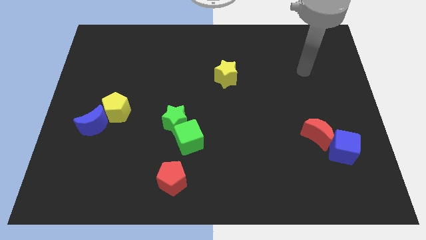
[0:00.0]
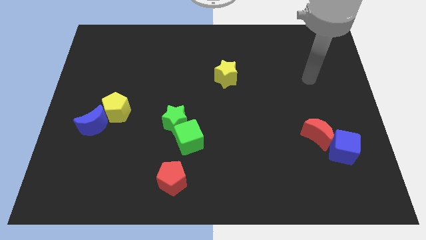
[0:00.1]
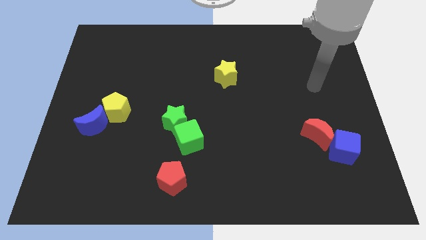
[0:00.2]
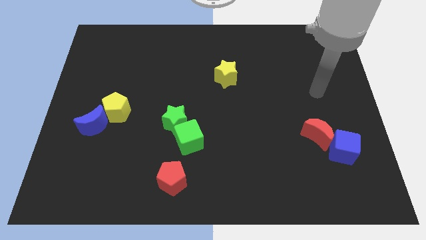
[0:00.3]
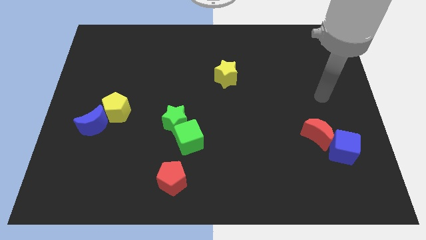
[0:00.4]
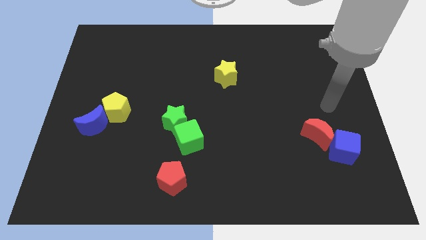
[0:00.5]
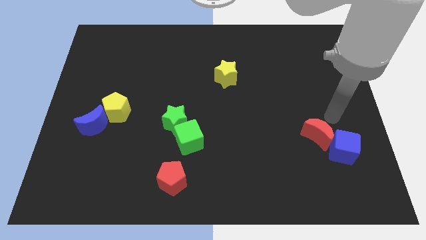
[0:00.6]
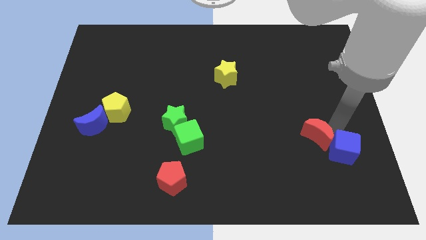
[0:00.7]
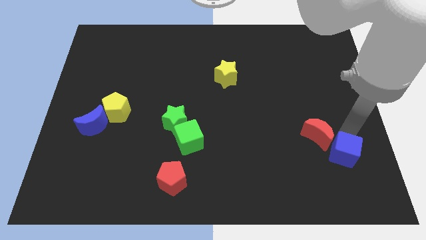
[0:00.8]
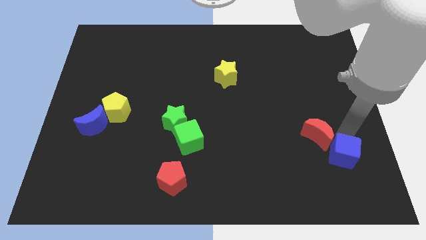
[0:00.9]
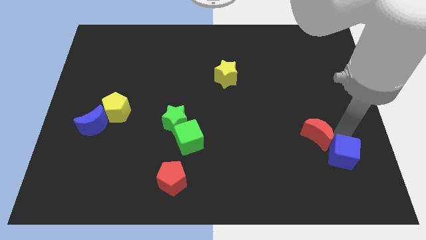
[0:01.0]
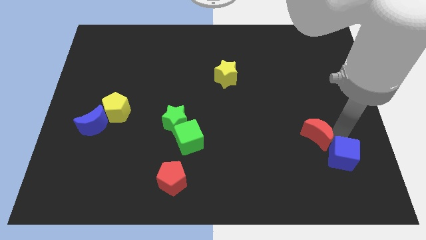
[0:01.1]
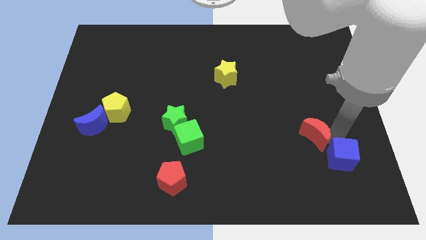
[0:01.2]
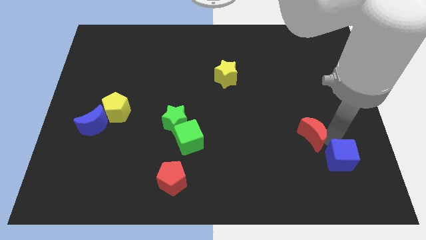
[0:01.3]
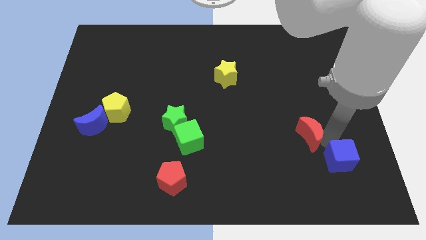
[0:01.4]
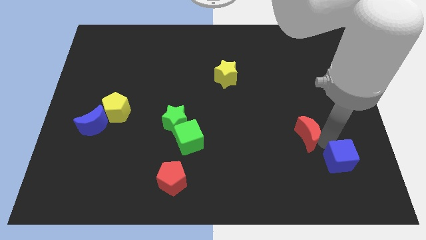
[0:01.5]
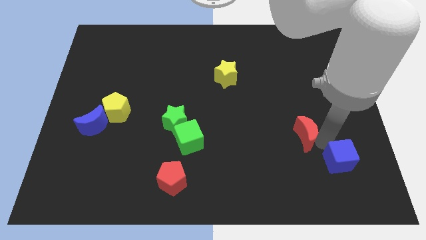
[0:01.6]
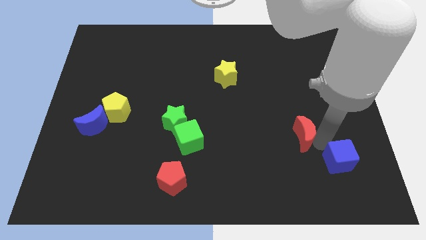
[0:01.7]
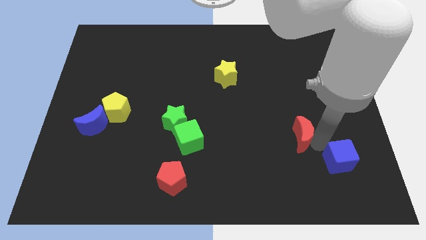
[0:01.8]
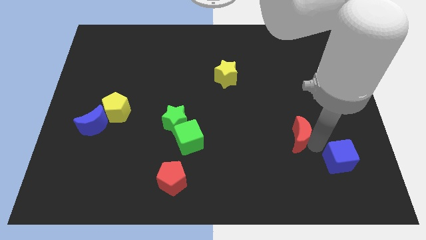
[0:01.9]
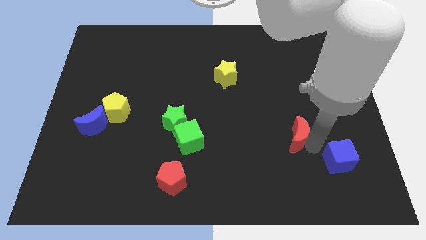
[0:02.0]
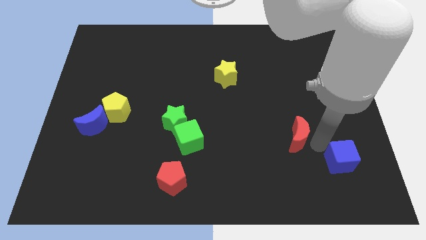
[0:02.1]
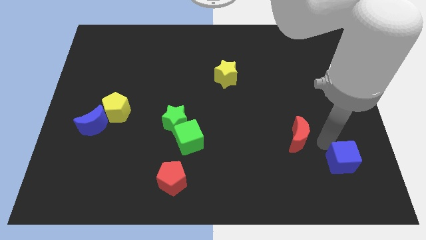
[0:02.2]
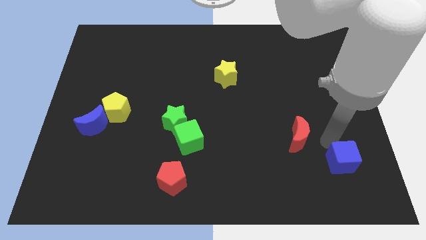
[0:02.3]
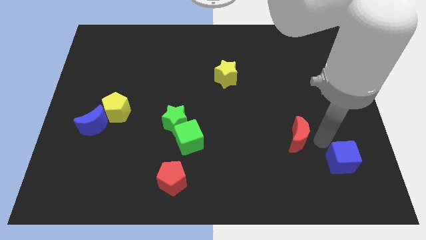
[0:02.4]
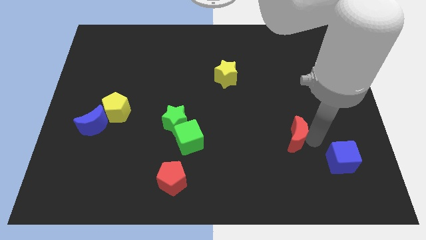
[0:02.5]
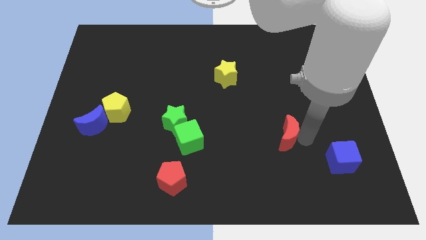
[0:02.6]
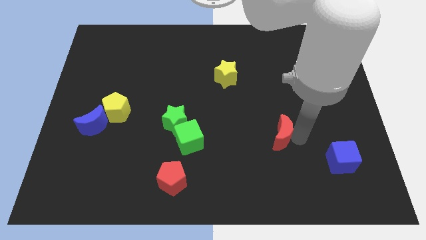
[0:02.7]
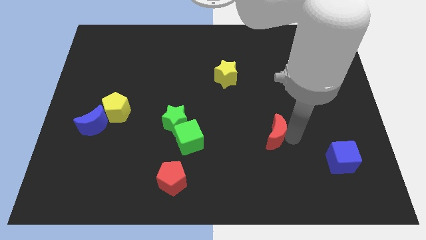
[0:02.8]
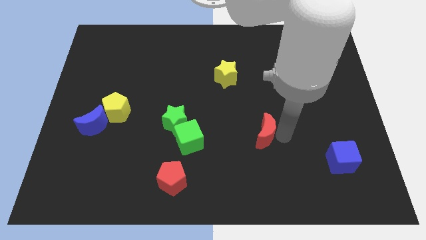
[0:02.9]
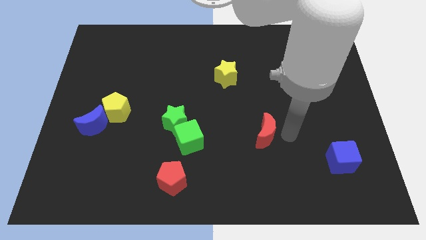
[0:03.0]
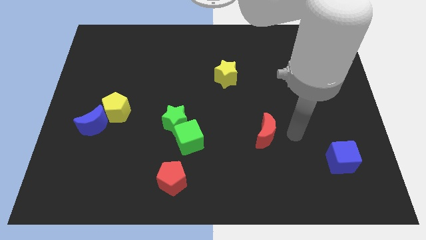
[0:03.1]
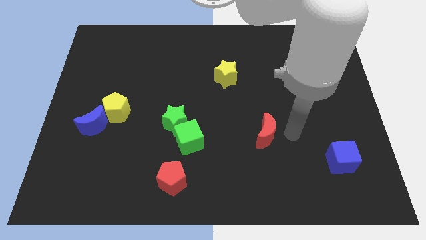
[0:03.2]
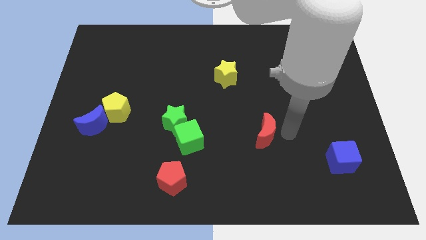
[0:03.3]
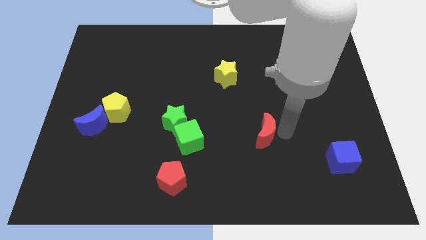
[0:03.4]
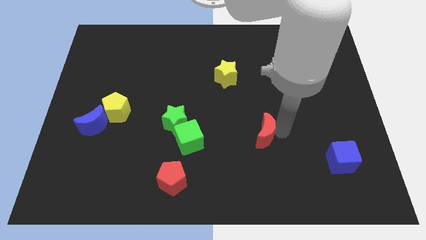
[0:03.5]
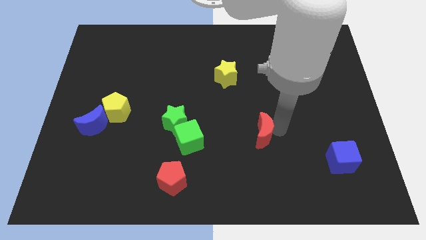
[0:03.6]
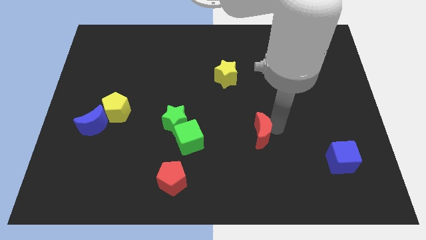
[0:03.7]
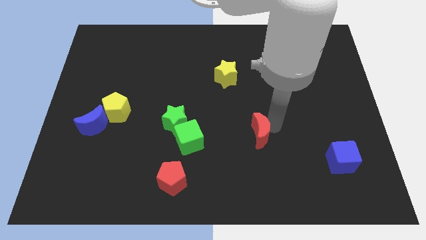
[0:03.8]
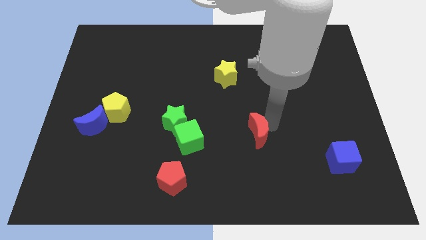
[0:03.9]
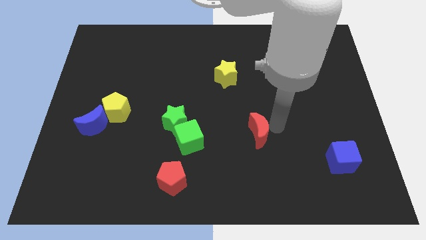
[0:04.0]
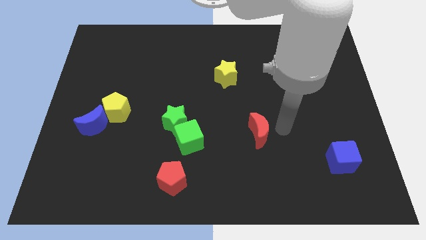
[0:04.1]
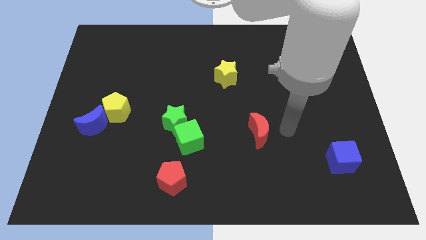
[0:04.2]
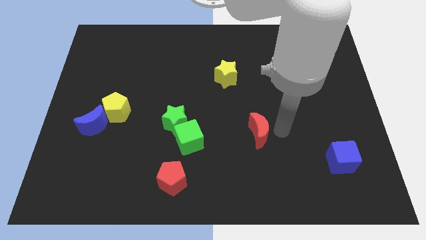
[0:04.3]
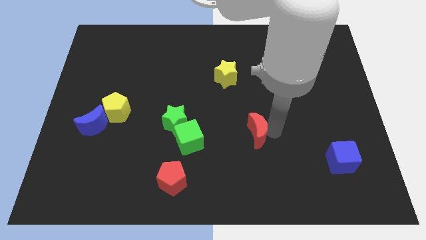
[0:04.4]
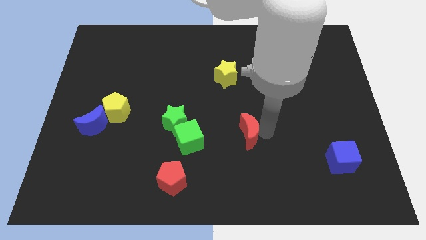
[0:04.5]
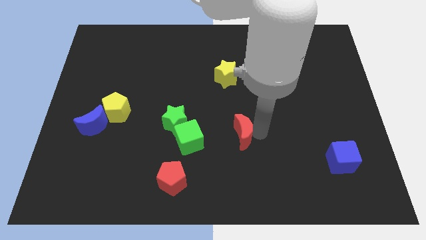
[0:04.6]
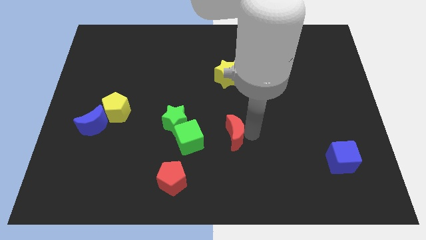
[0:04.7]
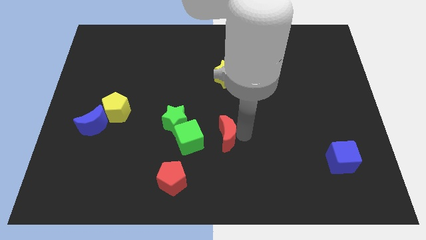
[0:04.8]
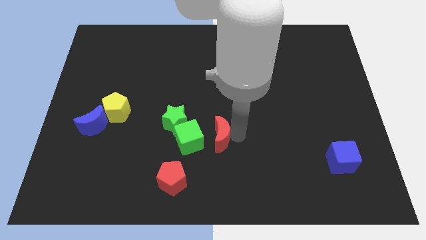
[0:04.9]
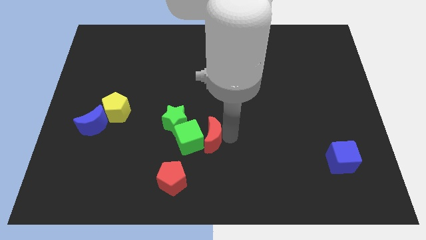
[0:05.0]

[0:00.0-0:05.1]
move the red moon close to the green cube

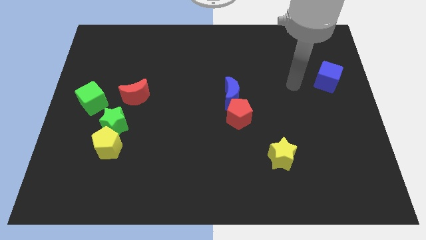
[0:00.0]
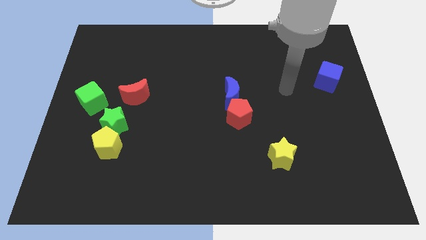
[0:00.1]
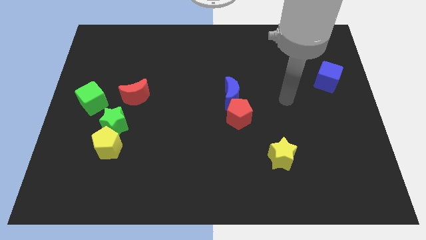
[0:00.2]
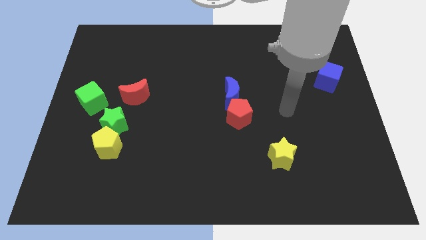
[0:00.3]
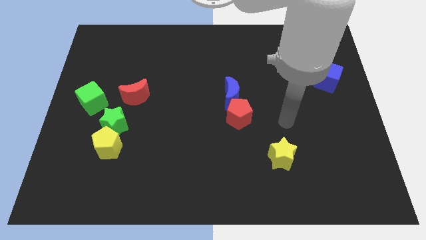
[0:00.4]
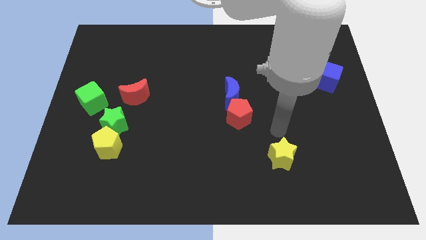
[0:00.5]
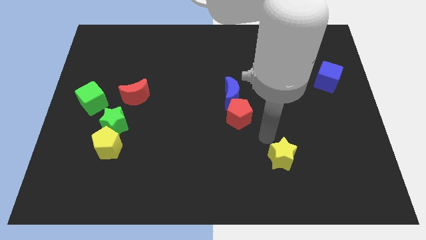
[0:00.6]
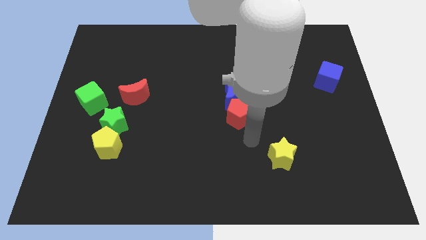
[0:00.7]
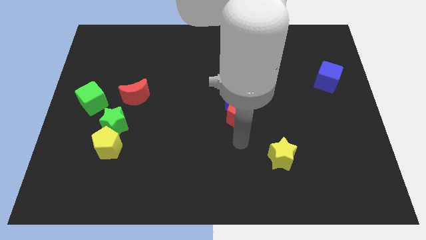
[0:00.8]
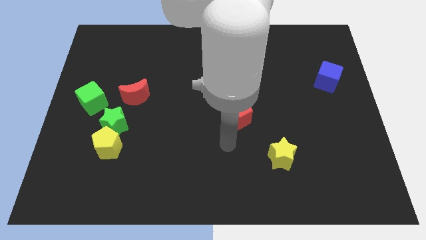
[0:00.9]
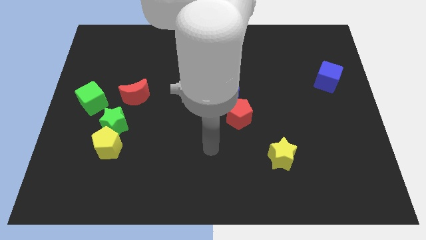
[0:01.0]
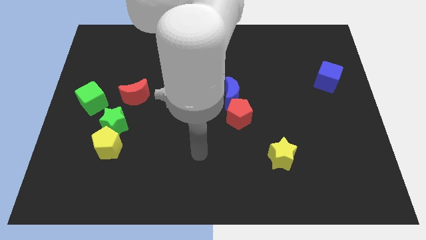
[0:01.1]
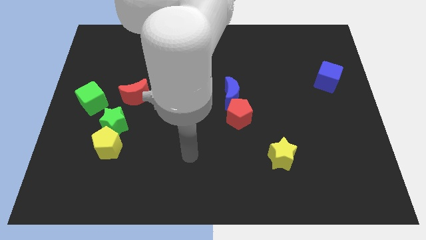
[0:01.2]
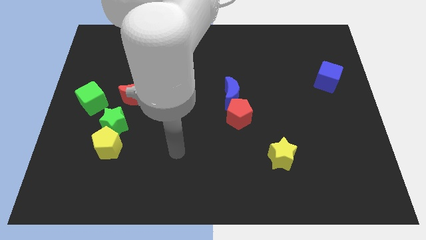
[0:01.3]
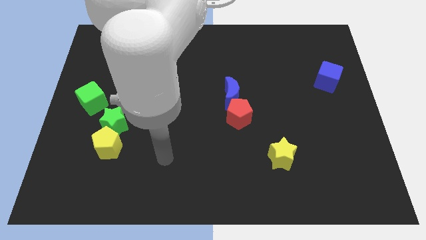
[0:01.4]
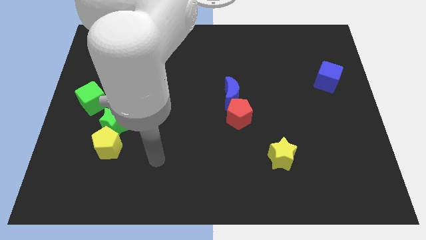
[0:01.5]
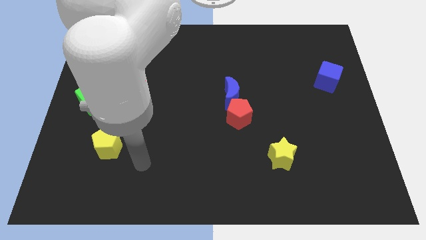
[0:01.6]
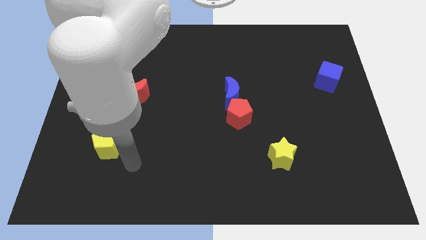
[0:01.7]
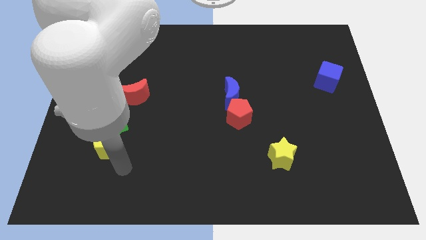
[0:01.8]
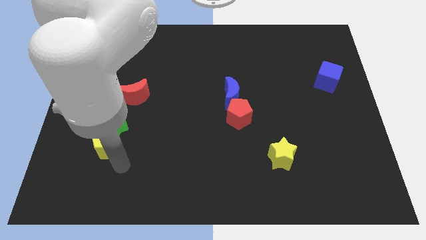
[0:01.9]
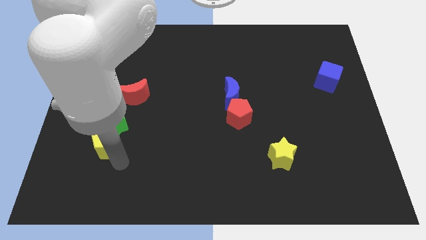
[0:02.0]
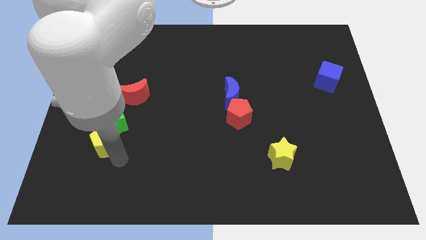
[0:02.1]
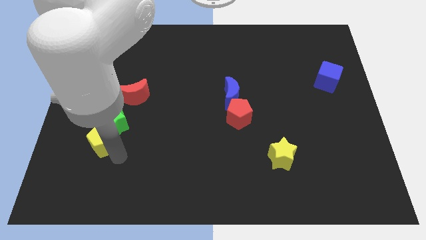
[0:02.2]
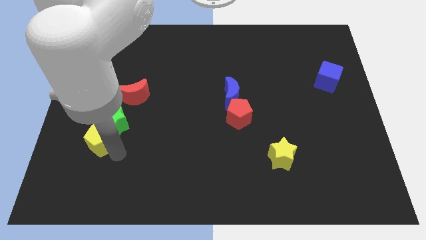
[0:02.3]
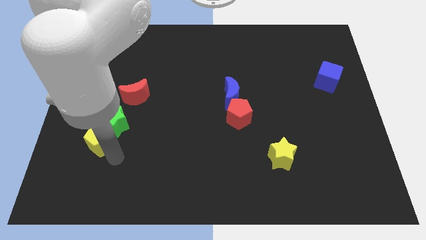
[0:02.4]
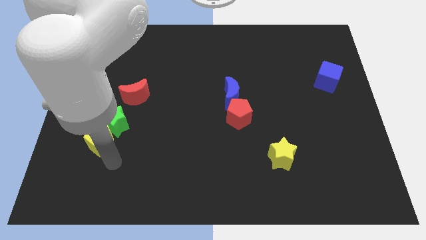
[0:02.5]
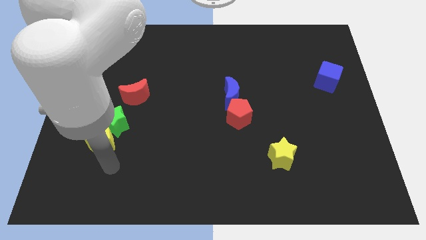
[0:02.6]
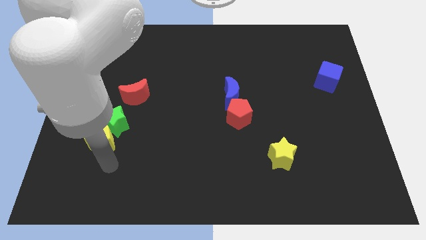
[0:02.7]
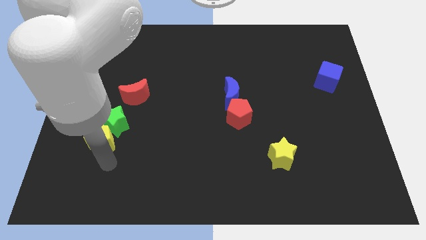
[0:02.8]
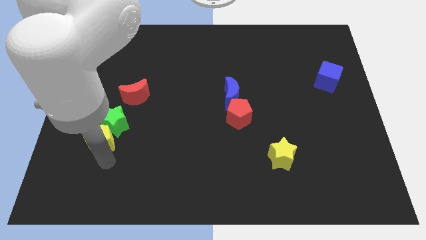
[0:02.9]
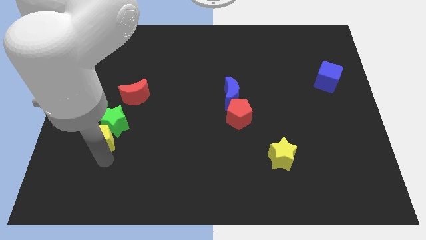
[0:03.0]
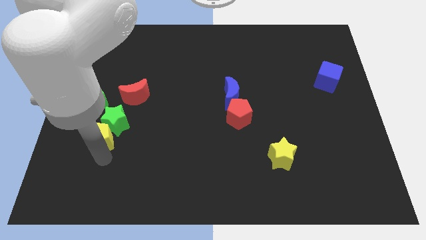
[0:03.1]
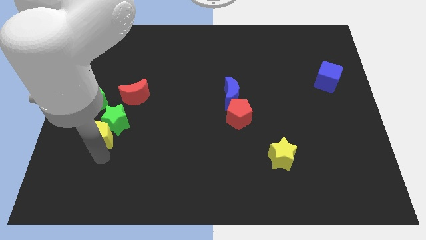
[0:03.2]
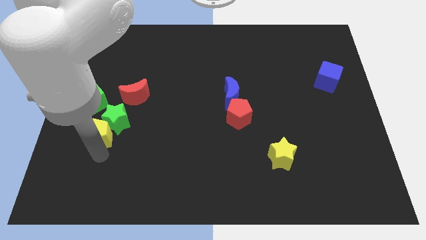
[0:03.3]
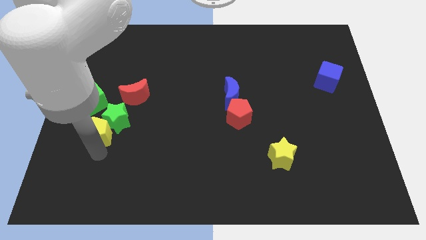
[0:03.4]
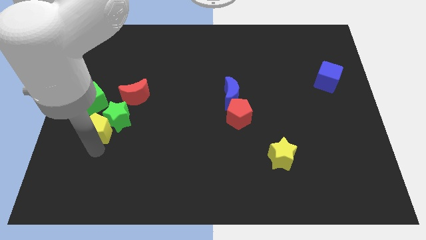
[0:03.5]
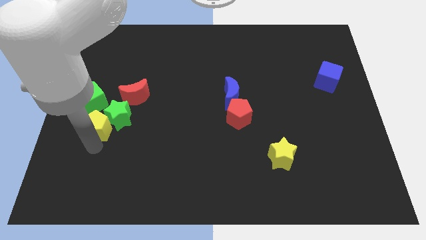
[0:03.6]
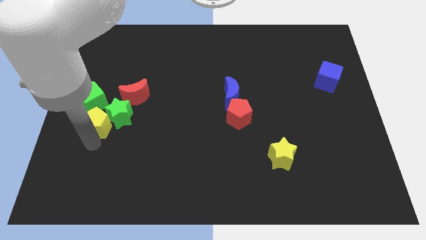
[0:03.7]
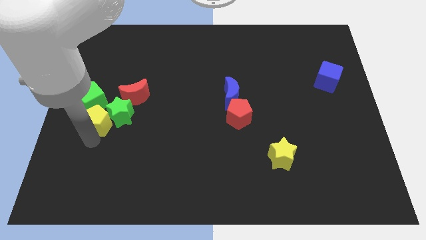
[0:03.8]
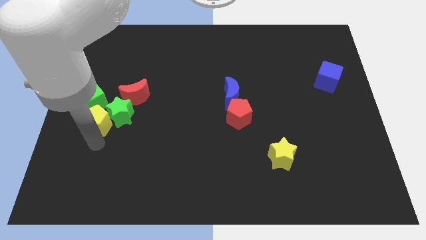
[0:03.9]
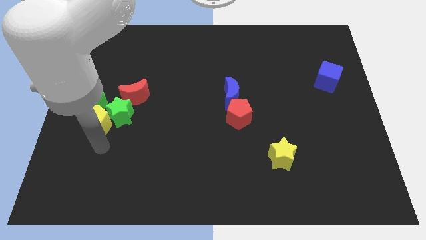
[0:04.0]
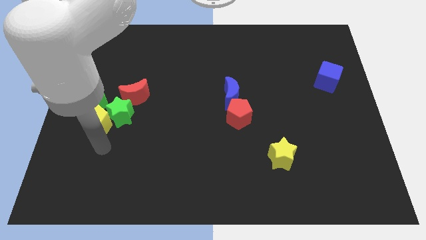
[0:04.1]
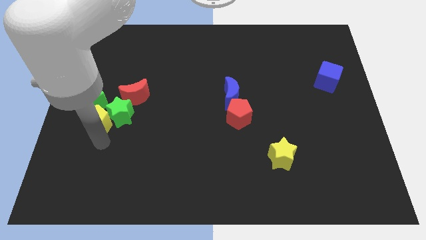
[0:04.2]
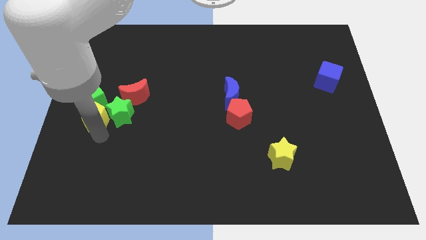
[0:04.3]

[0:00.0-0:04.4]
move the yellow pentagon close to the green cube
